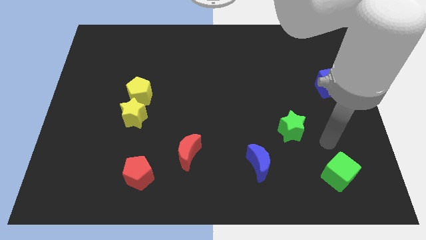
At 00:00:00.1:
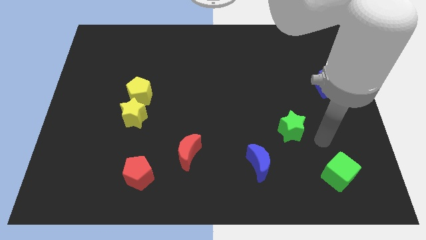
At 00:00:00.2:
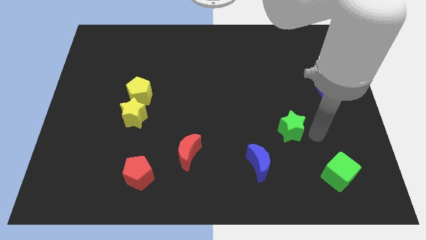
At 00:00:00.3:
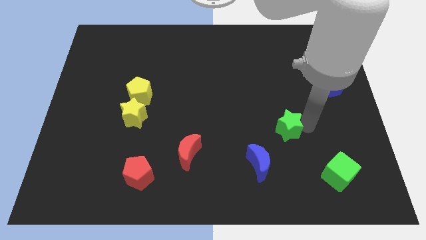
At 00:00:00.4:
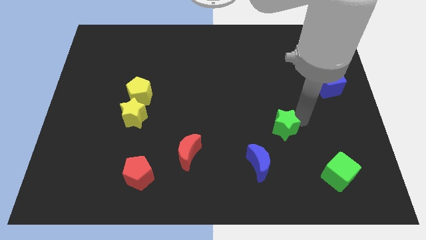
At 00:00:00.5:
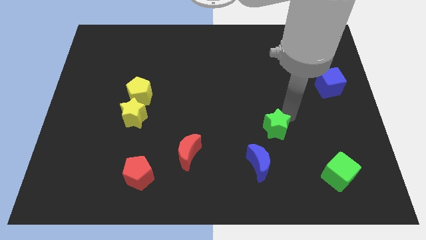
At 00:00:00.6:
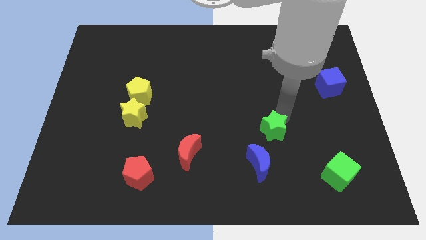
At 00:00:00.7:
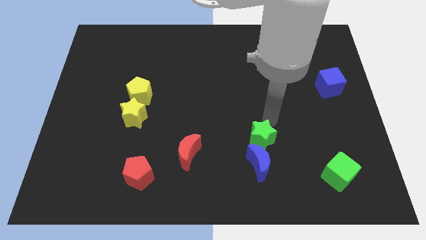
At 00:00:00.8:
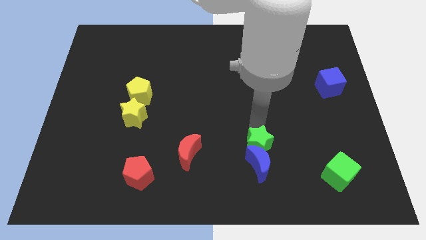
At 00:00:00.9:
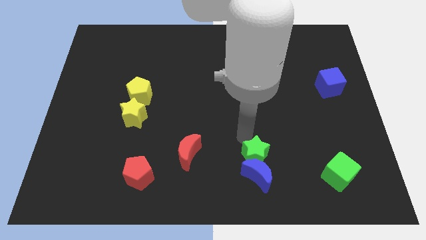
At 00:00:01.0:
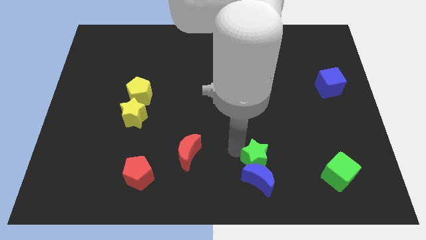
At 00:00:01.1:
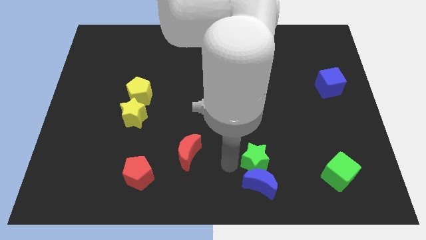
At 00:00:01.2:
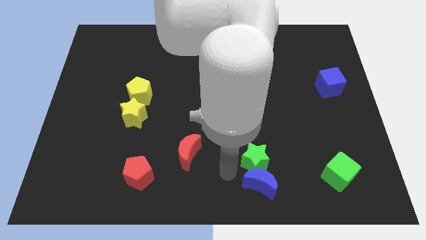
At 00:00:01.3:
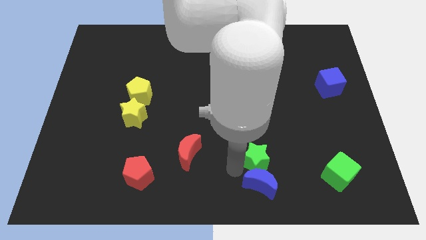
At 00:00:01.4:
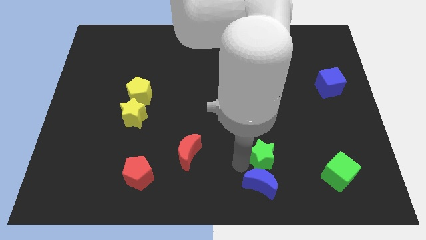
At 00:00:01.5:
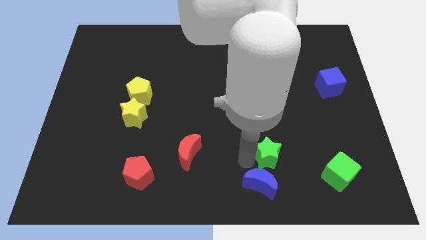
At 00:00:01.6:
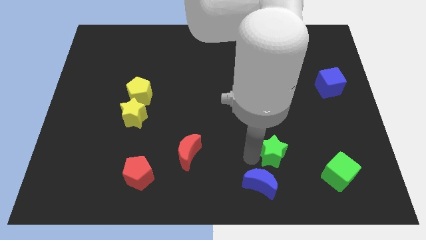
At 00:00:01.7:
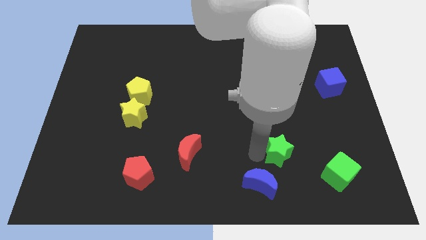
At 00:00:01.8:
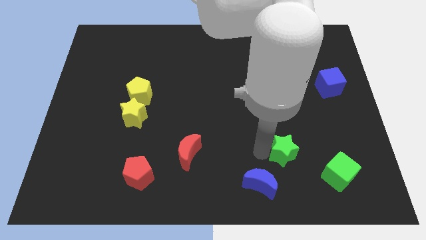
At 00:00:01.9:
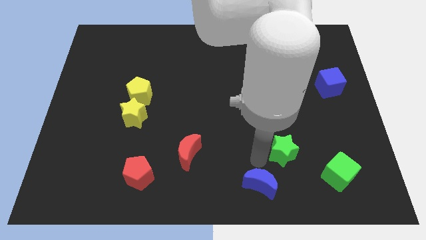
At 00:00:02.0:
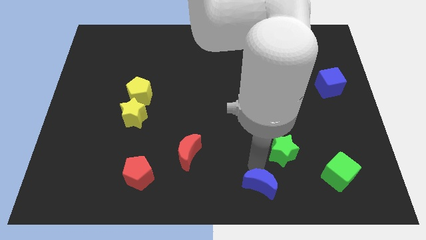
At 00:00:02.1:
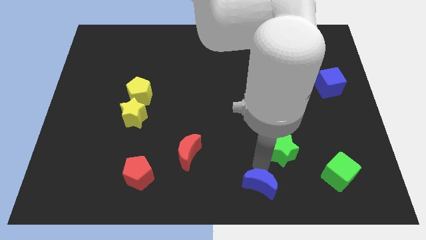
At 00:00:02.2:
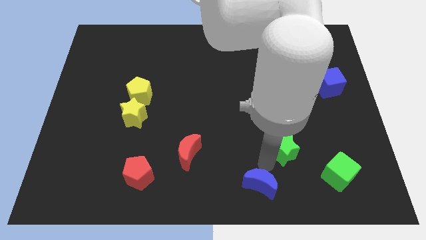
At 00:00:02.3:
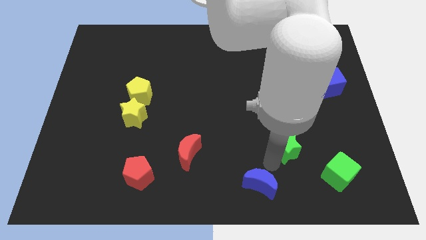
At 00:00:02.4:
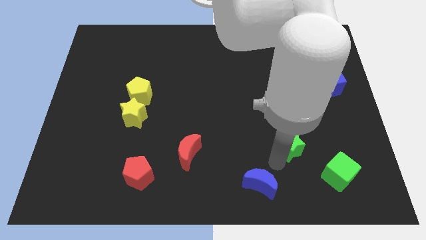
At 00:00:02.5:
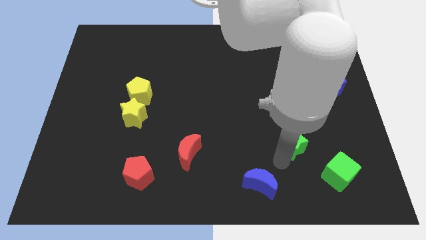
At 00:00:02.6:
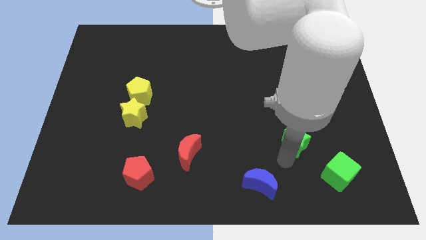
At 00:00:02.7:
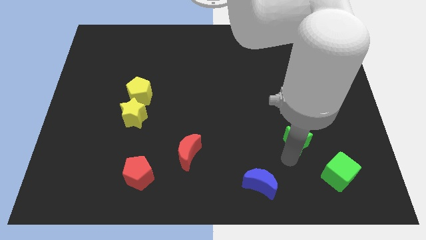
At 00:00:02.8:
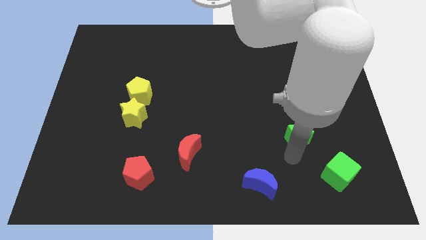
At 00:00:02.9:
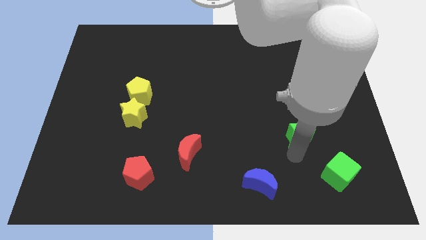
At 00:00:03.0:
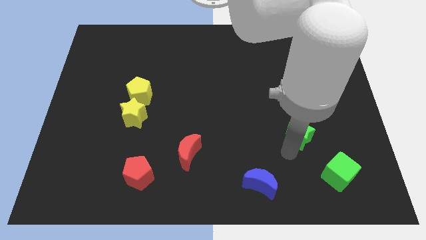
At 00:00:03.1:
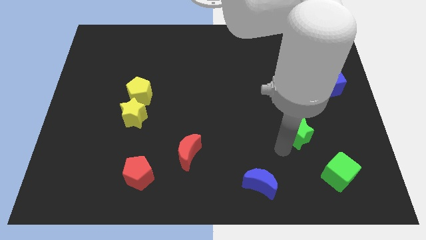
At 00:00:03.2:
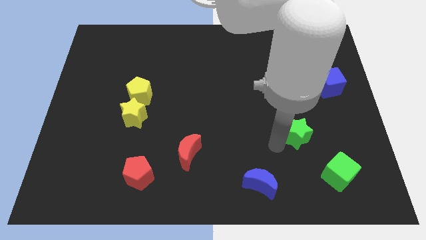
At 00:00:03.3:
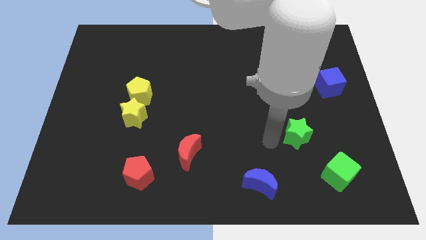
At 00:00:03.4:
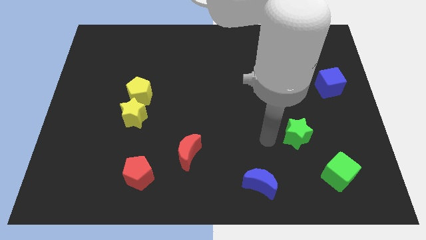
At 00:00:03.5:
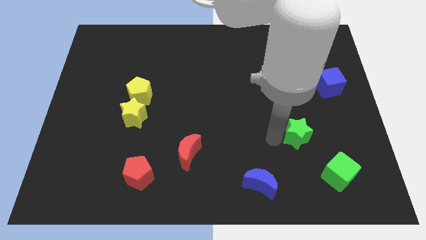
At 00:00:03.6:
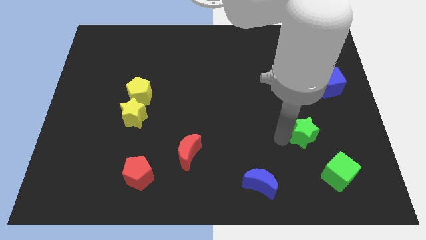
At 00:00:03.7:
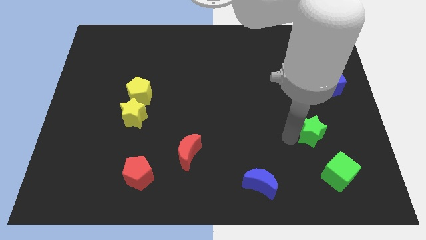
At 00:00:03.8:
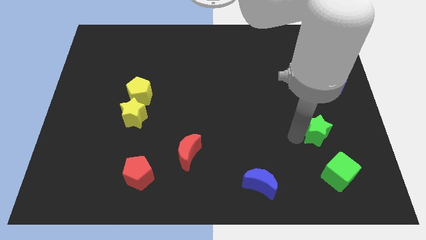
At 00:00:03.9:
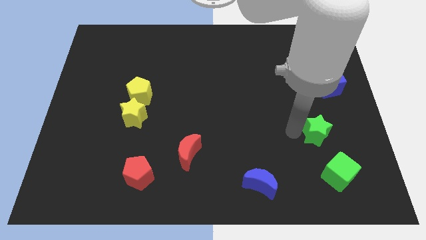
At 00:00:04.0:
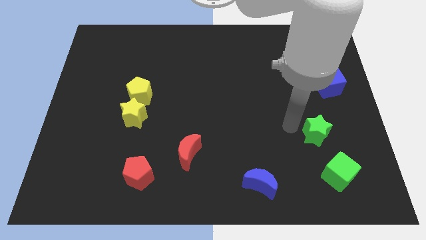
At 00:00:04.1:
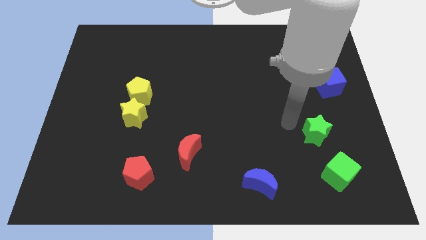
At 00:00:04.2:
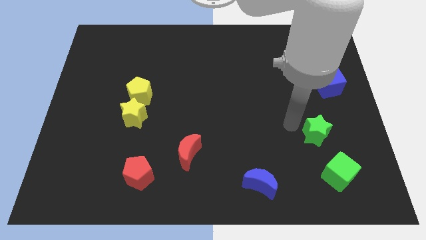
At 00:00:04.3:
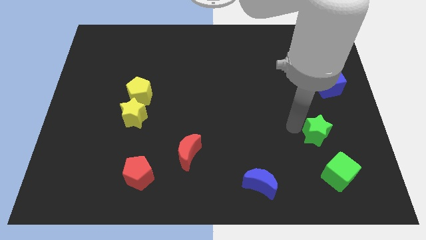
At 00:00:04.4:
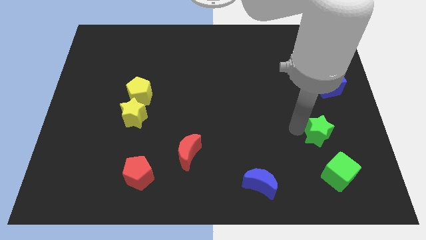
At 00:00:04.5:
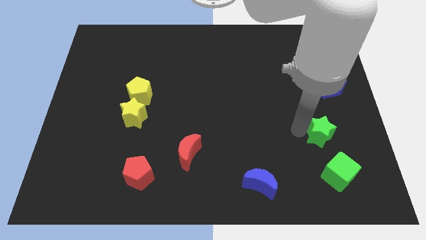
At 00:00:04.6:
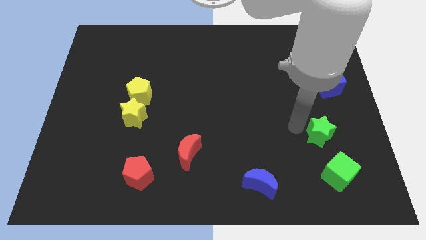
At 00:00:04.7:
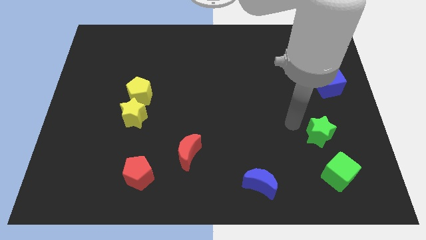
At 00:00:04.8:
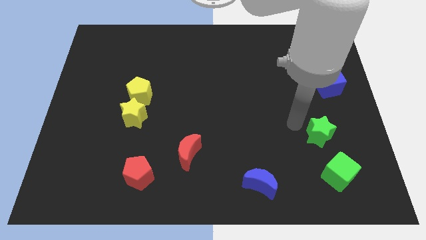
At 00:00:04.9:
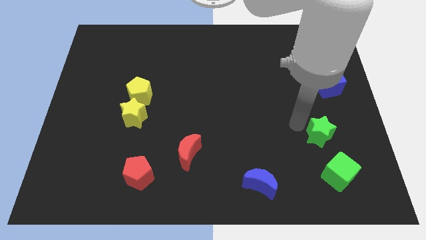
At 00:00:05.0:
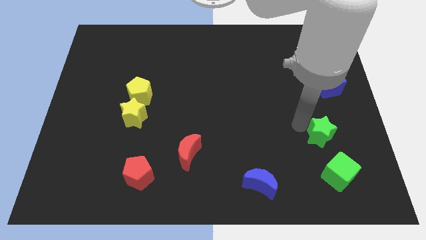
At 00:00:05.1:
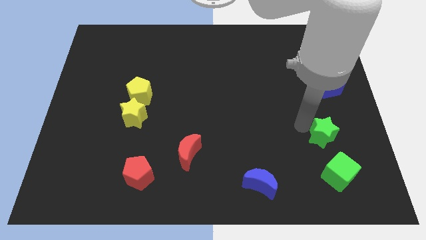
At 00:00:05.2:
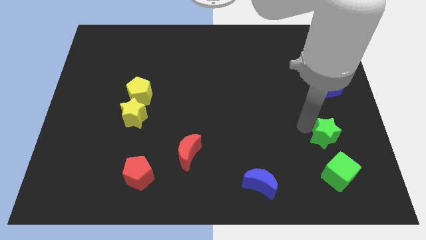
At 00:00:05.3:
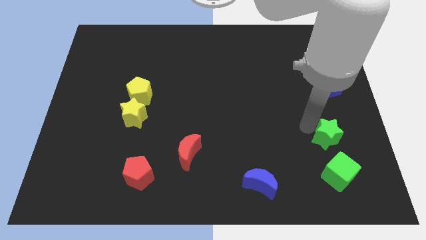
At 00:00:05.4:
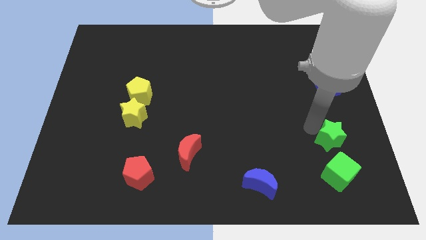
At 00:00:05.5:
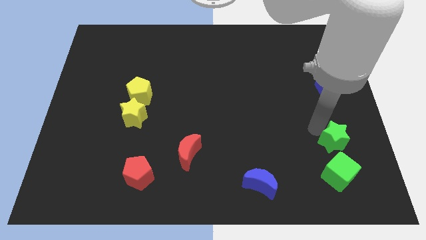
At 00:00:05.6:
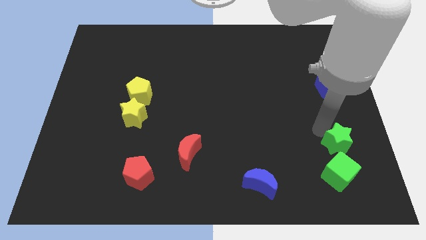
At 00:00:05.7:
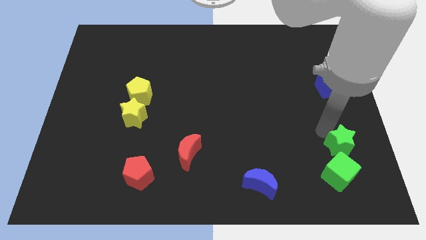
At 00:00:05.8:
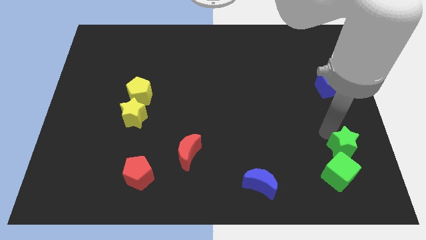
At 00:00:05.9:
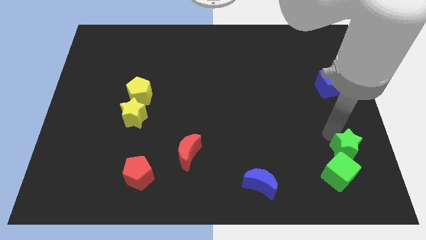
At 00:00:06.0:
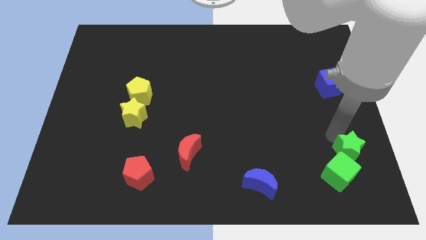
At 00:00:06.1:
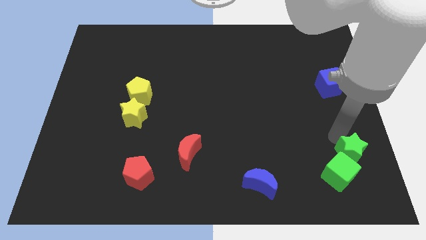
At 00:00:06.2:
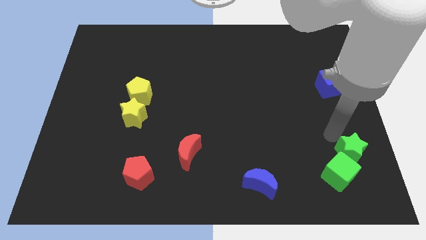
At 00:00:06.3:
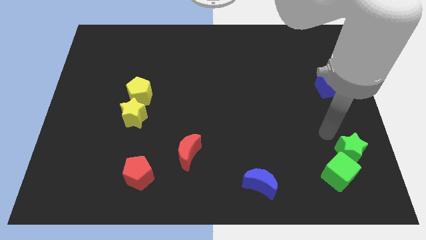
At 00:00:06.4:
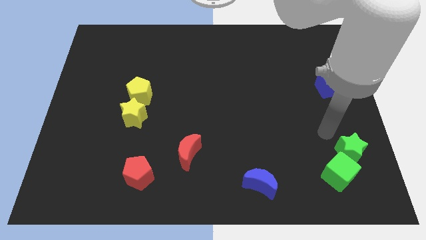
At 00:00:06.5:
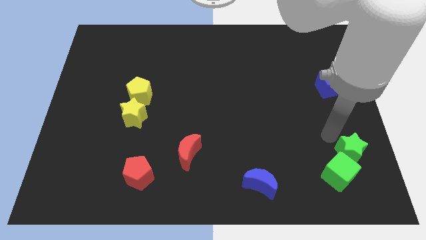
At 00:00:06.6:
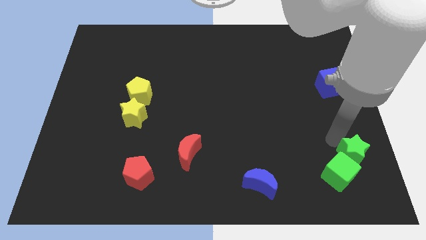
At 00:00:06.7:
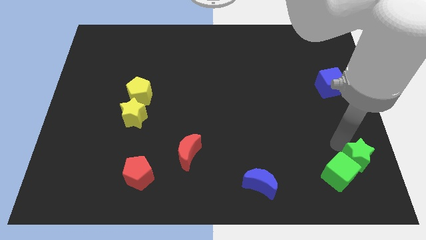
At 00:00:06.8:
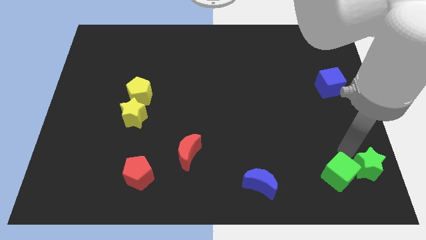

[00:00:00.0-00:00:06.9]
slide the green star to the lower right corner

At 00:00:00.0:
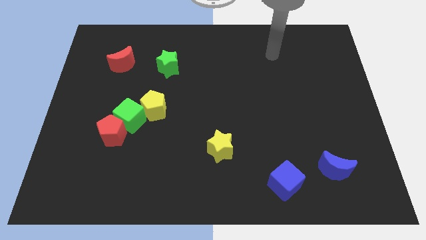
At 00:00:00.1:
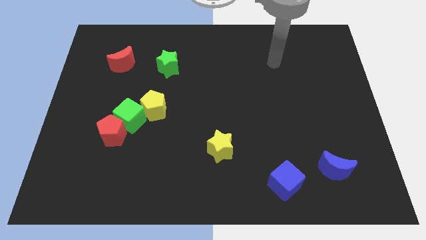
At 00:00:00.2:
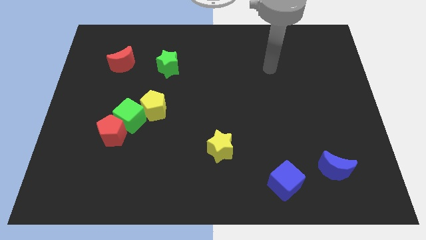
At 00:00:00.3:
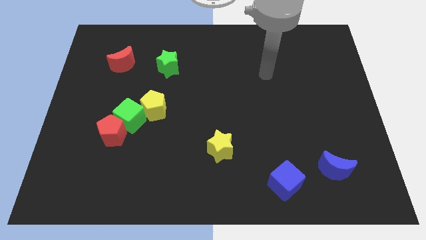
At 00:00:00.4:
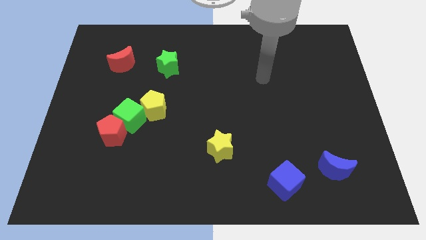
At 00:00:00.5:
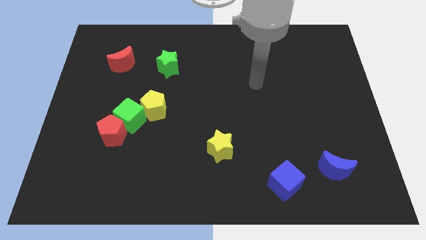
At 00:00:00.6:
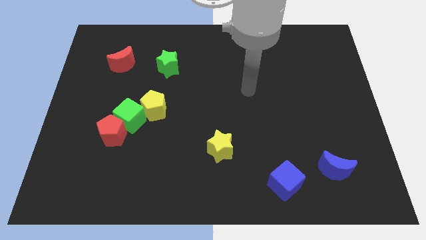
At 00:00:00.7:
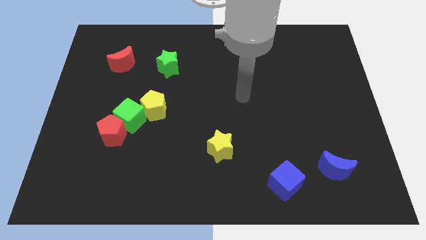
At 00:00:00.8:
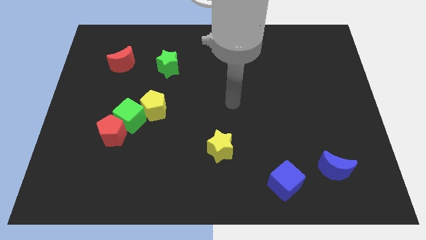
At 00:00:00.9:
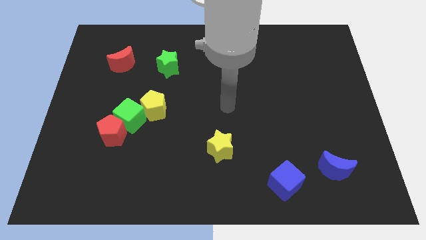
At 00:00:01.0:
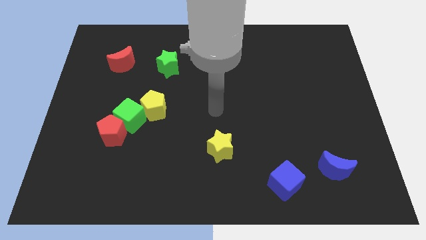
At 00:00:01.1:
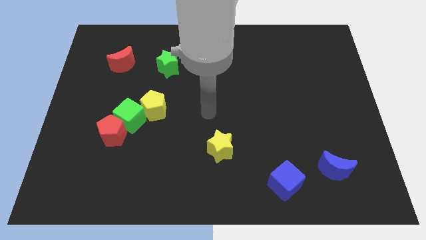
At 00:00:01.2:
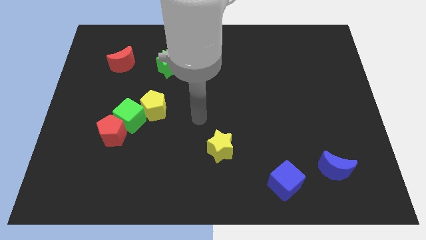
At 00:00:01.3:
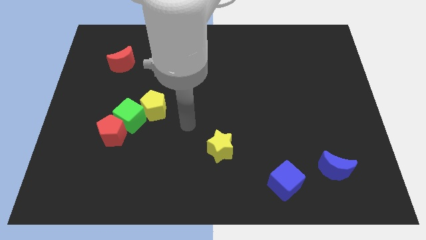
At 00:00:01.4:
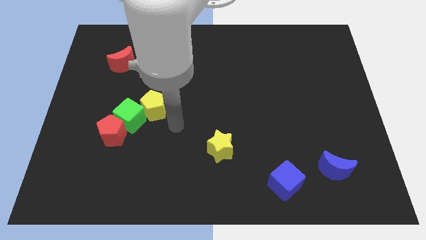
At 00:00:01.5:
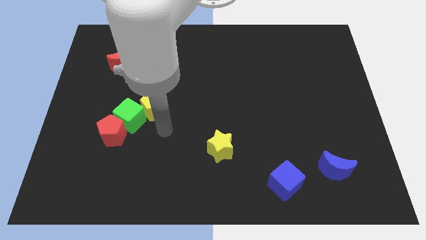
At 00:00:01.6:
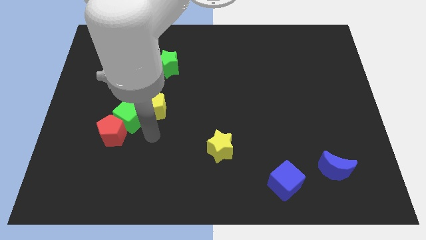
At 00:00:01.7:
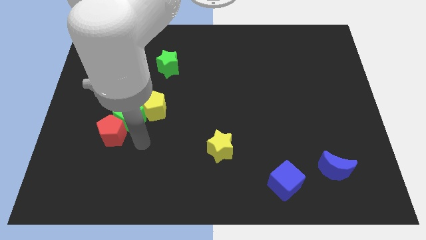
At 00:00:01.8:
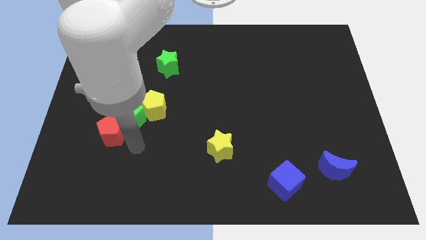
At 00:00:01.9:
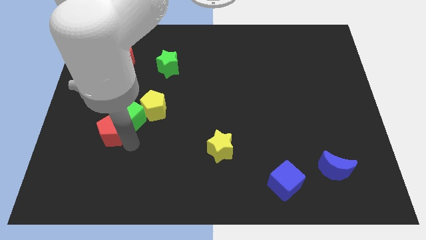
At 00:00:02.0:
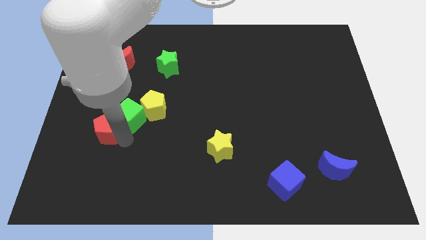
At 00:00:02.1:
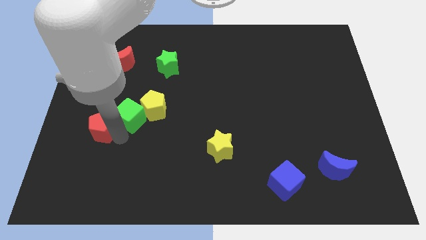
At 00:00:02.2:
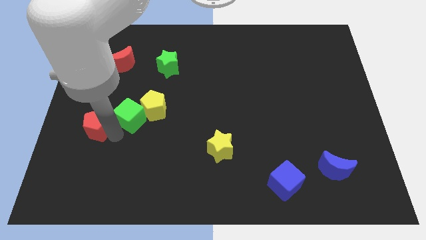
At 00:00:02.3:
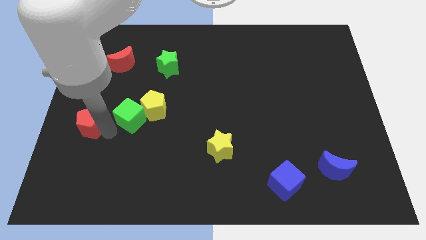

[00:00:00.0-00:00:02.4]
push the red pentagon to the center left
